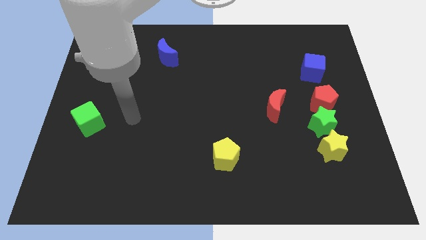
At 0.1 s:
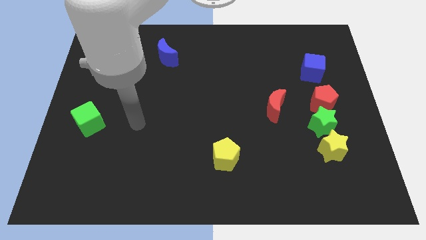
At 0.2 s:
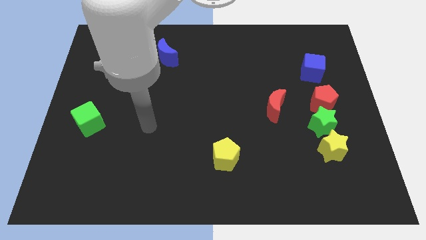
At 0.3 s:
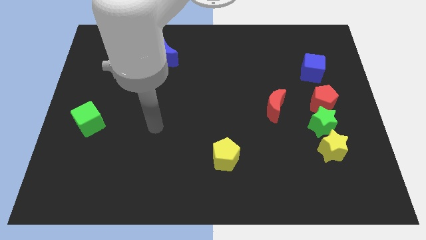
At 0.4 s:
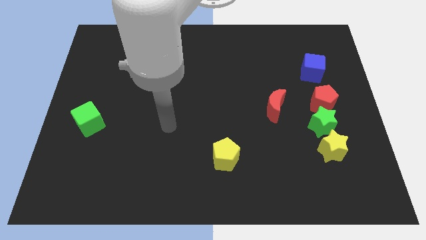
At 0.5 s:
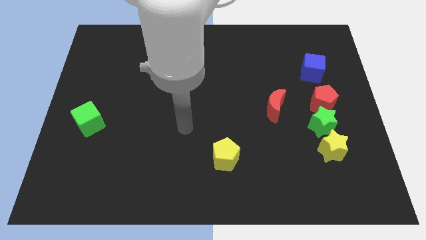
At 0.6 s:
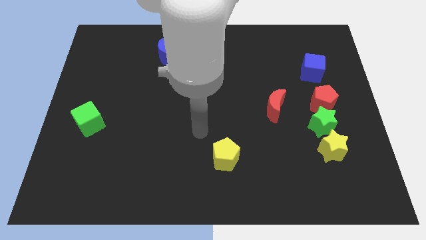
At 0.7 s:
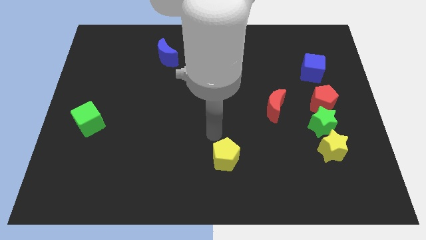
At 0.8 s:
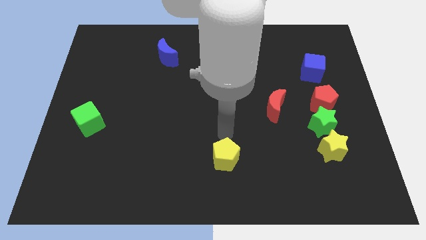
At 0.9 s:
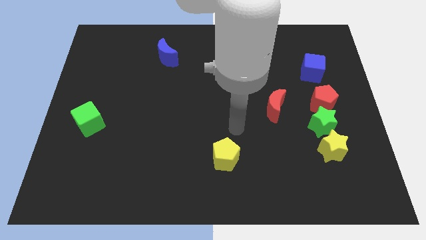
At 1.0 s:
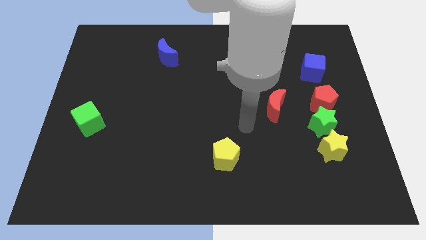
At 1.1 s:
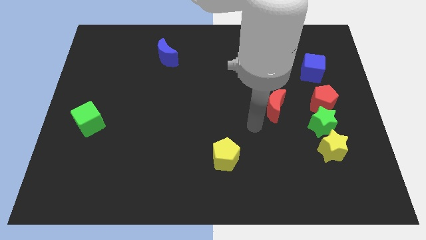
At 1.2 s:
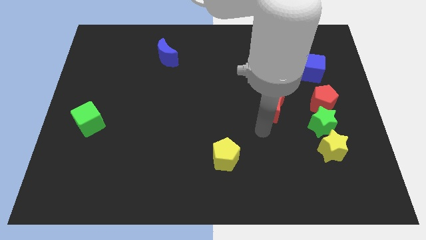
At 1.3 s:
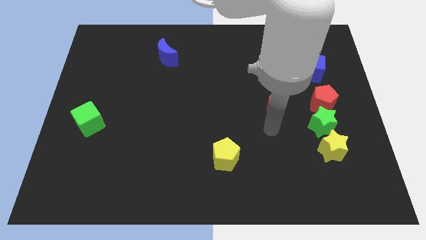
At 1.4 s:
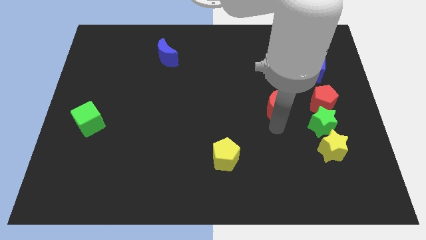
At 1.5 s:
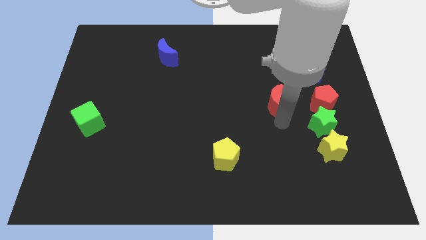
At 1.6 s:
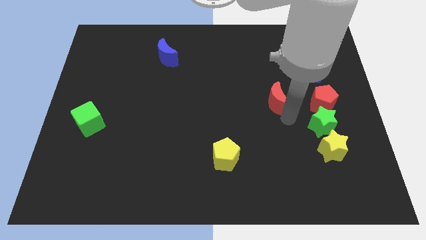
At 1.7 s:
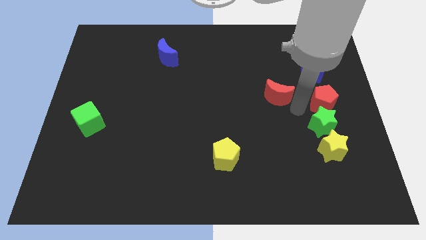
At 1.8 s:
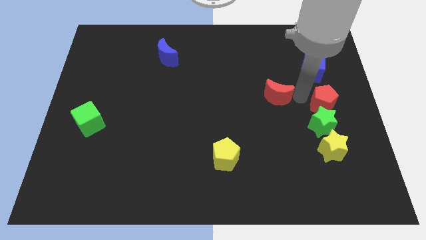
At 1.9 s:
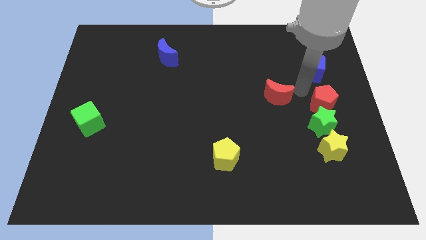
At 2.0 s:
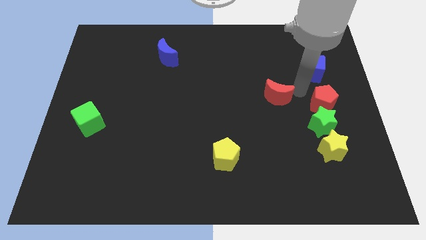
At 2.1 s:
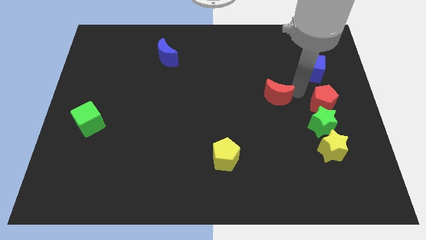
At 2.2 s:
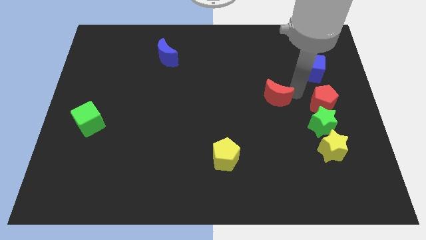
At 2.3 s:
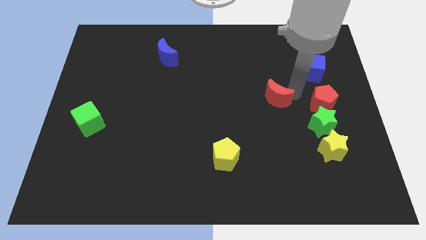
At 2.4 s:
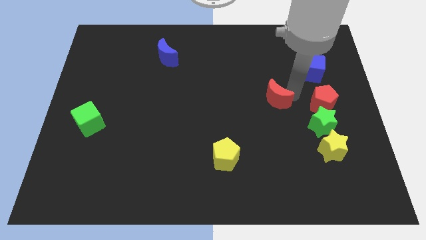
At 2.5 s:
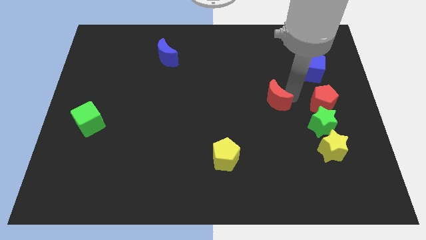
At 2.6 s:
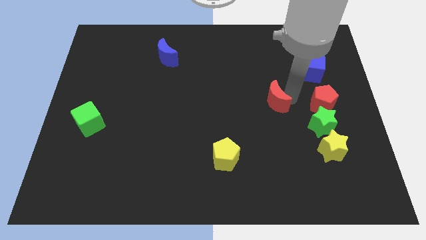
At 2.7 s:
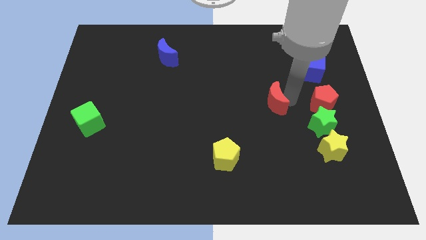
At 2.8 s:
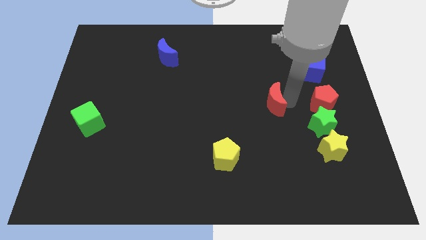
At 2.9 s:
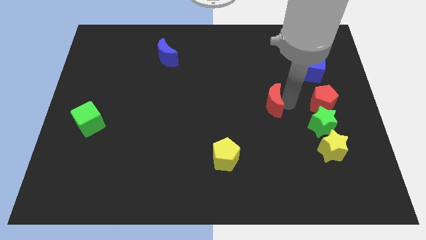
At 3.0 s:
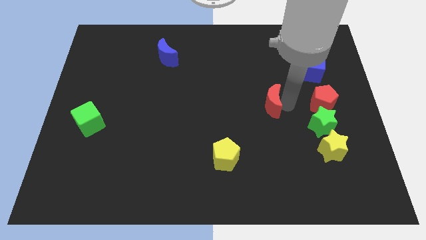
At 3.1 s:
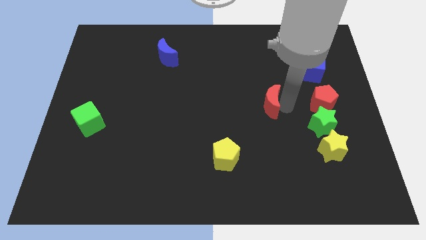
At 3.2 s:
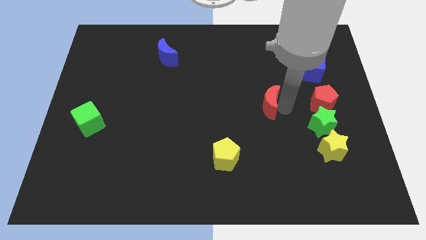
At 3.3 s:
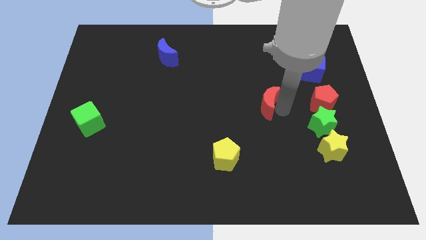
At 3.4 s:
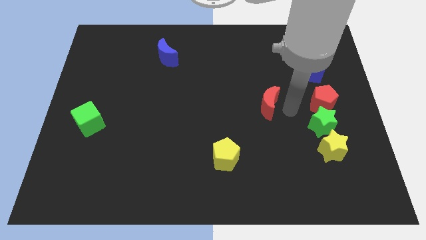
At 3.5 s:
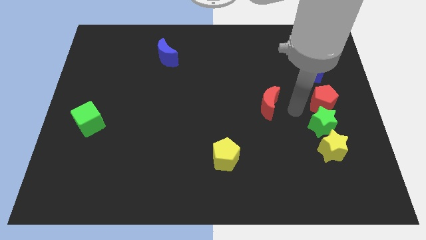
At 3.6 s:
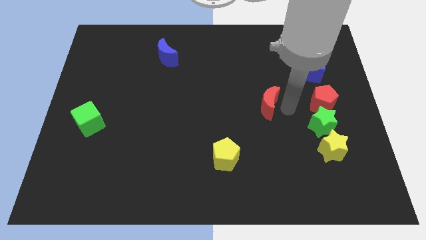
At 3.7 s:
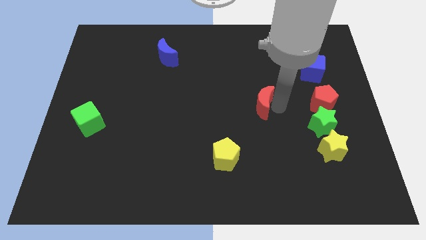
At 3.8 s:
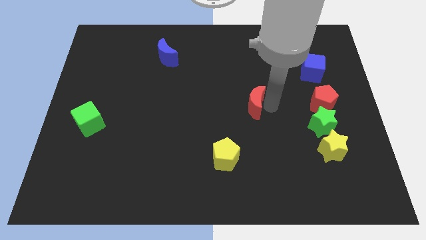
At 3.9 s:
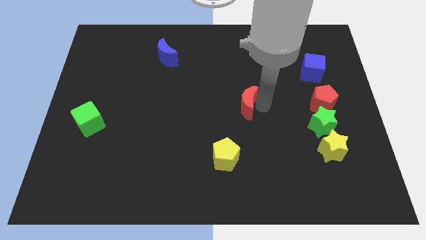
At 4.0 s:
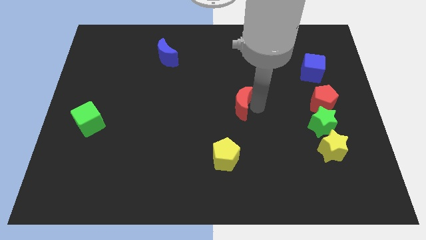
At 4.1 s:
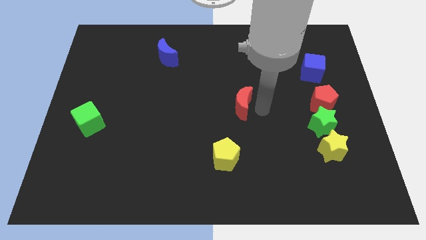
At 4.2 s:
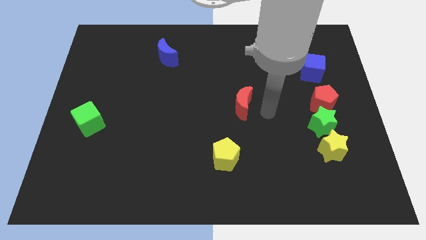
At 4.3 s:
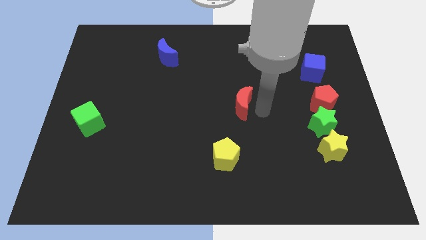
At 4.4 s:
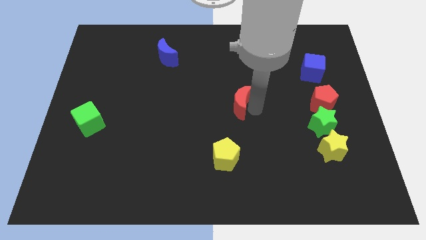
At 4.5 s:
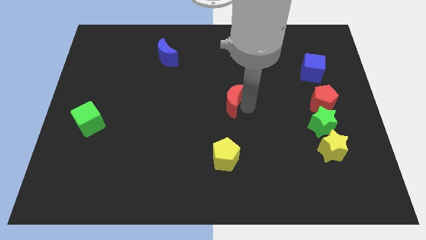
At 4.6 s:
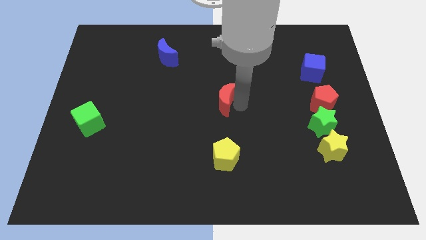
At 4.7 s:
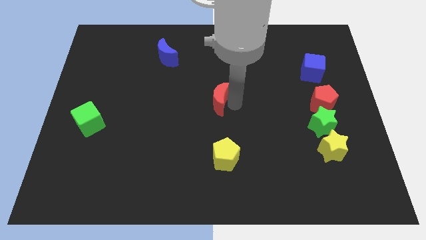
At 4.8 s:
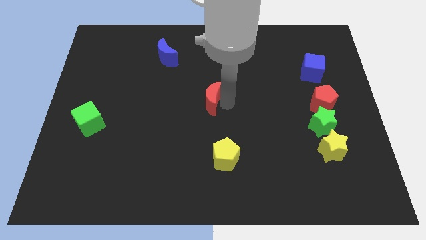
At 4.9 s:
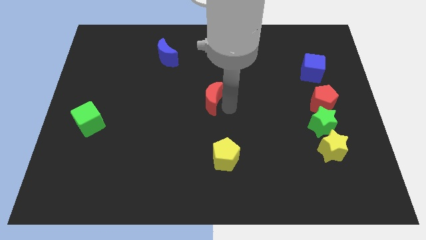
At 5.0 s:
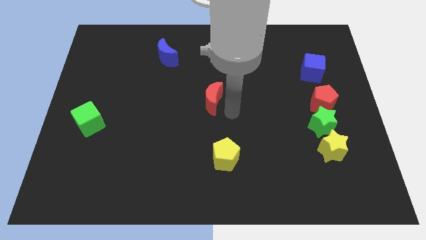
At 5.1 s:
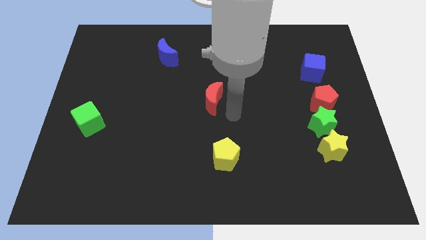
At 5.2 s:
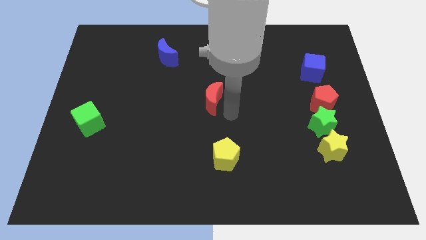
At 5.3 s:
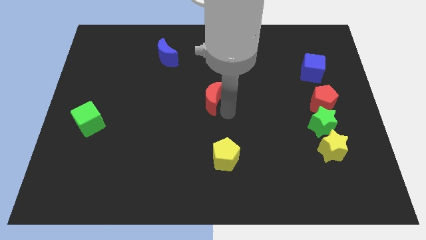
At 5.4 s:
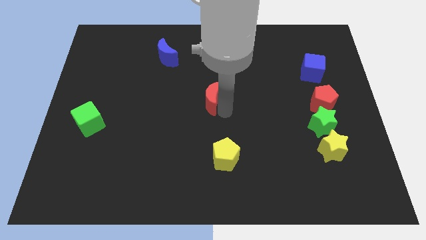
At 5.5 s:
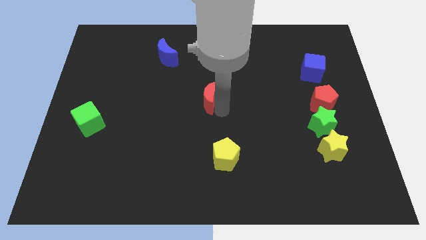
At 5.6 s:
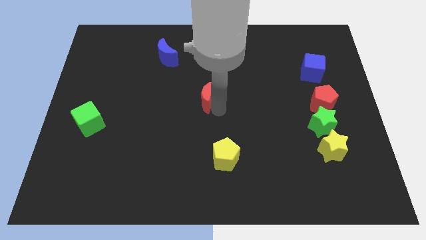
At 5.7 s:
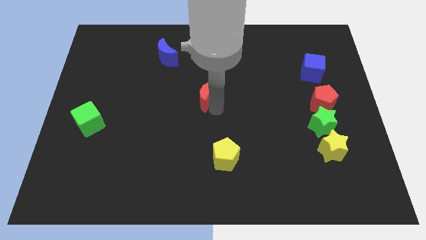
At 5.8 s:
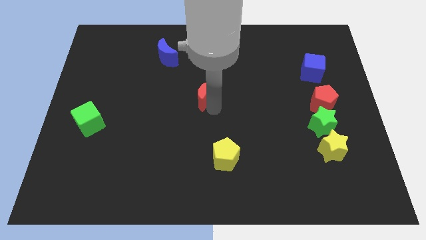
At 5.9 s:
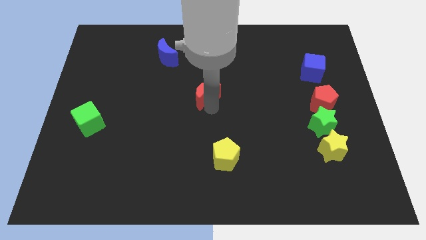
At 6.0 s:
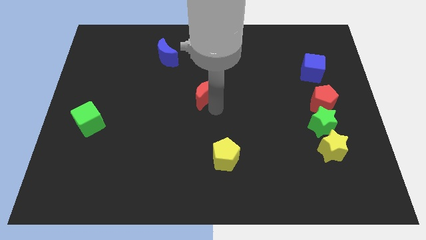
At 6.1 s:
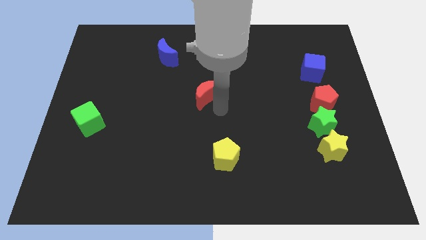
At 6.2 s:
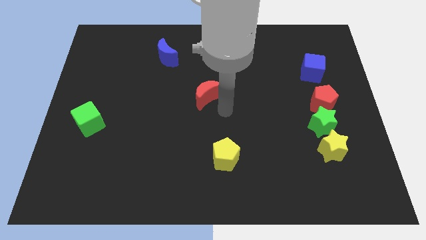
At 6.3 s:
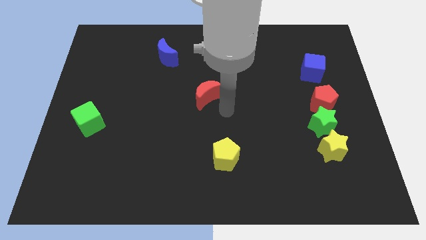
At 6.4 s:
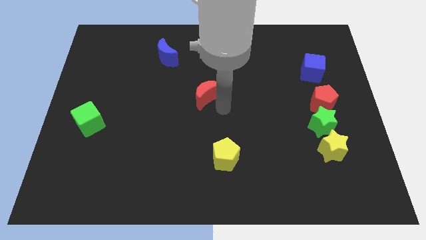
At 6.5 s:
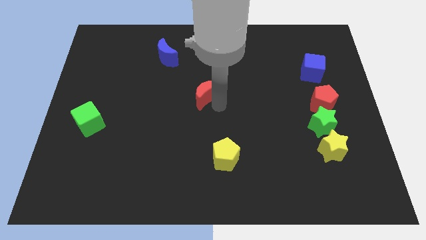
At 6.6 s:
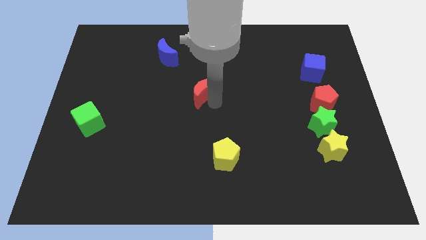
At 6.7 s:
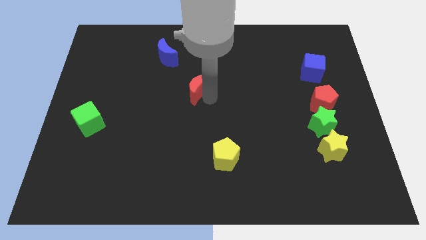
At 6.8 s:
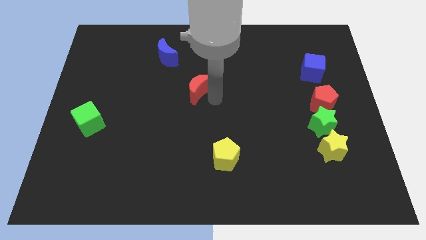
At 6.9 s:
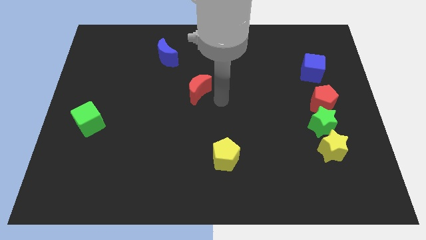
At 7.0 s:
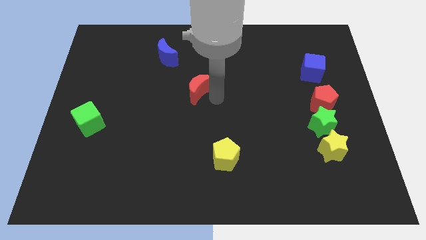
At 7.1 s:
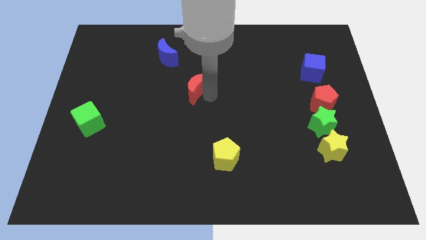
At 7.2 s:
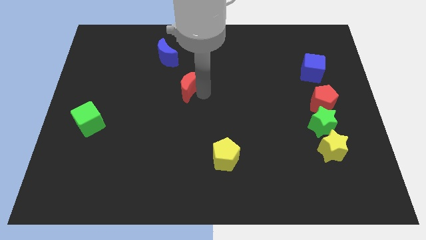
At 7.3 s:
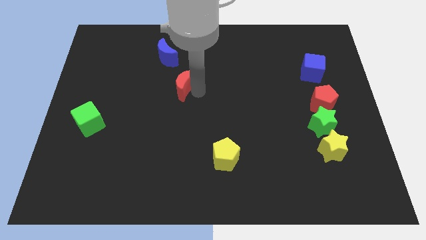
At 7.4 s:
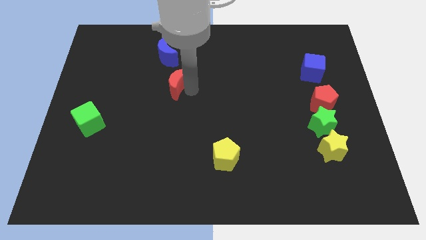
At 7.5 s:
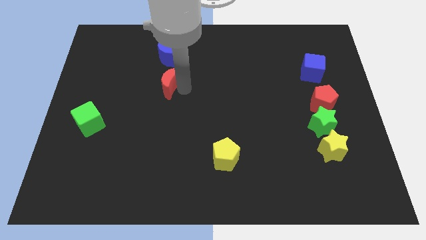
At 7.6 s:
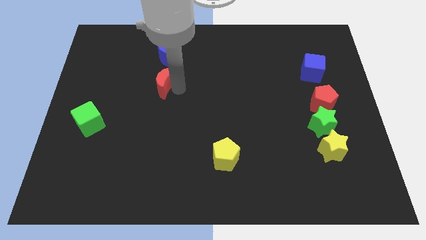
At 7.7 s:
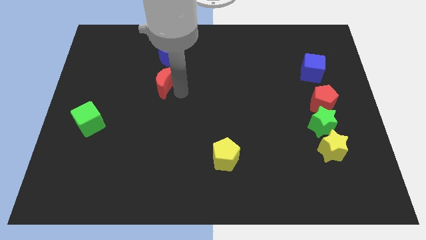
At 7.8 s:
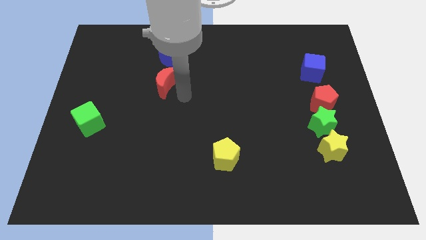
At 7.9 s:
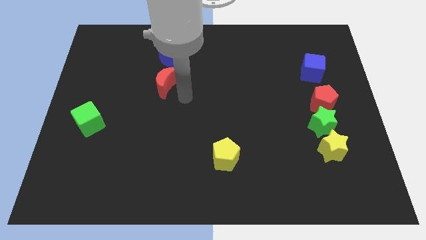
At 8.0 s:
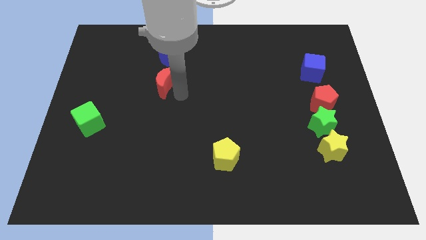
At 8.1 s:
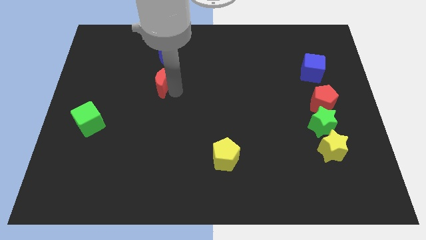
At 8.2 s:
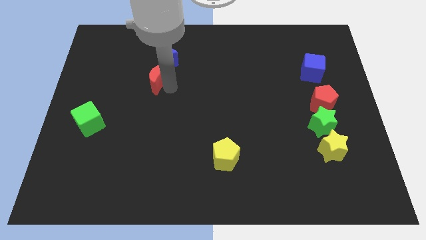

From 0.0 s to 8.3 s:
put the red moon diagonally down and to the left of the blue moon
